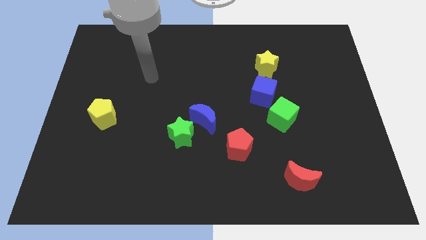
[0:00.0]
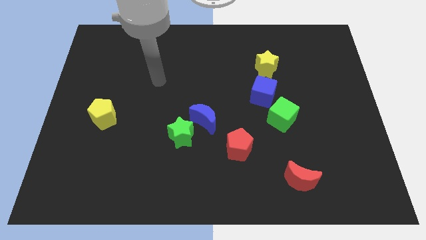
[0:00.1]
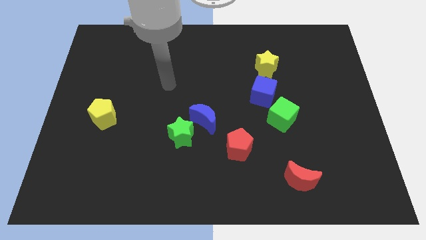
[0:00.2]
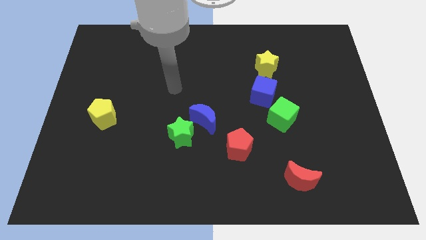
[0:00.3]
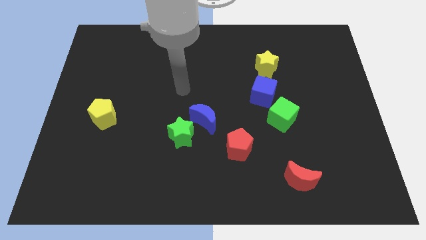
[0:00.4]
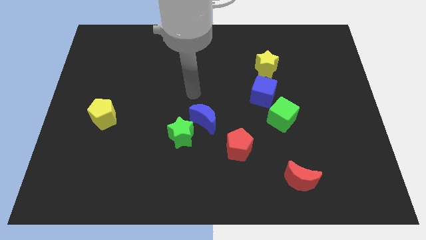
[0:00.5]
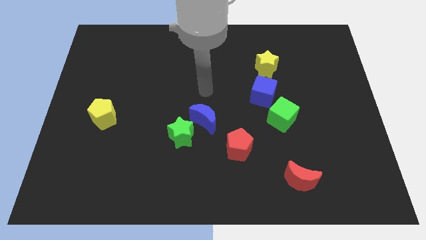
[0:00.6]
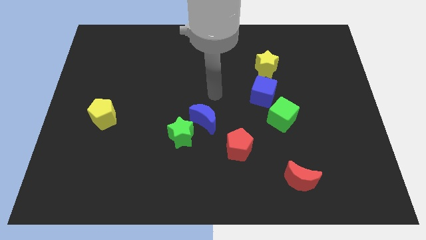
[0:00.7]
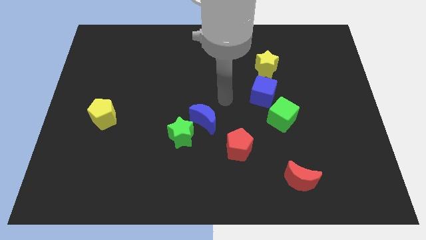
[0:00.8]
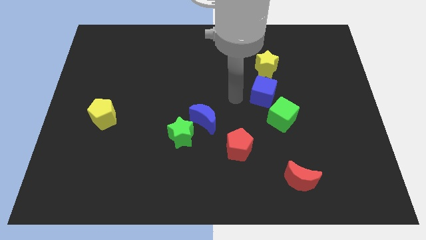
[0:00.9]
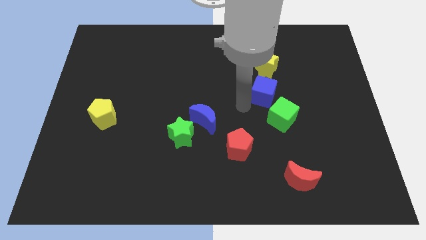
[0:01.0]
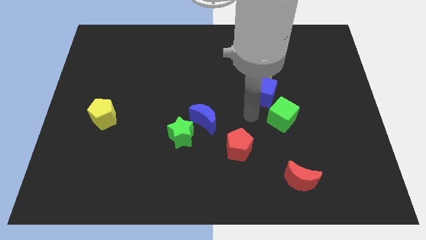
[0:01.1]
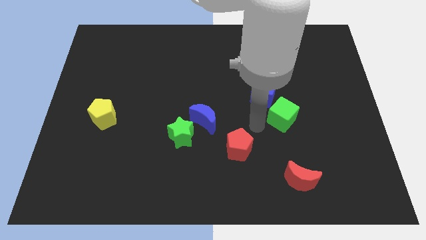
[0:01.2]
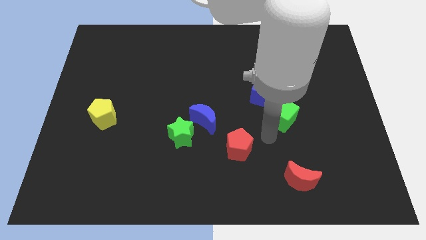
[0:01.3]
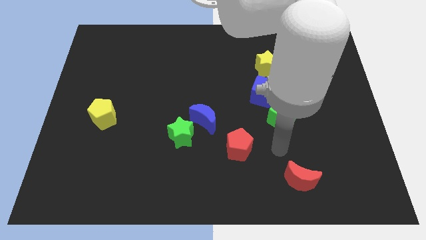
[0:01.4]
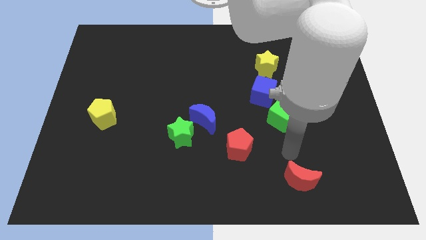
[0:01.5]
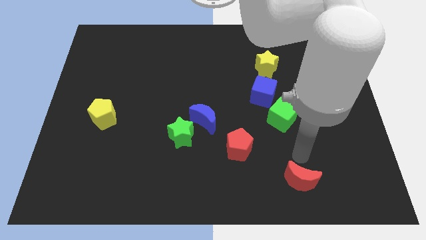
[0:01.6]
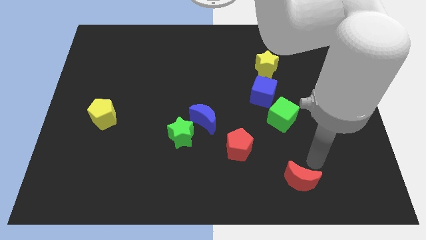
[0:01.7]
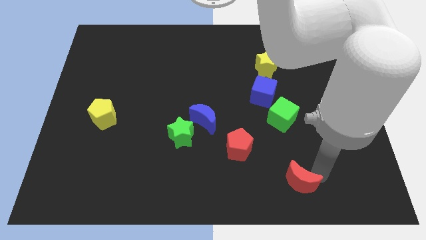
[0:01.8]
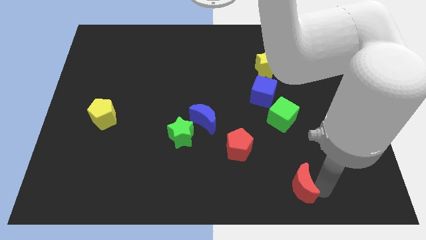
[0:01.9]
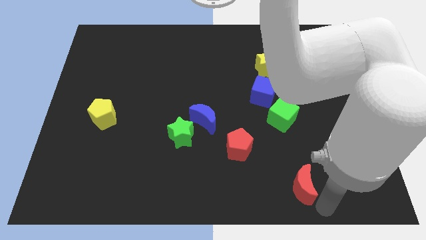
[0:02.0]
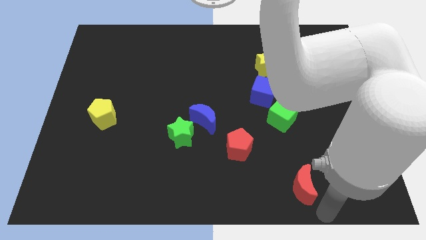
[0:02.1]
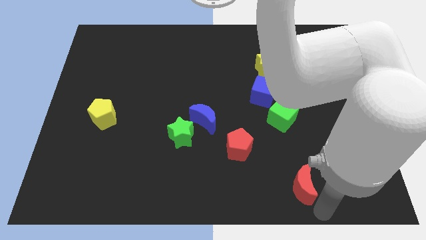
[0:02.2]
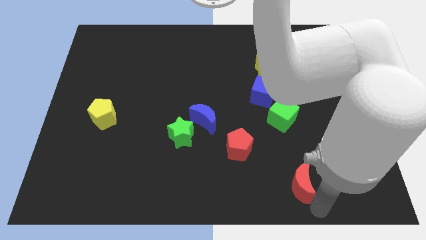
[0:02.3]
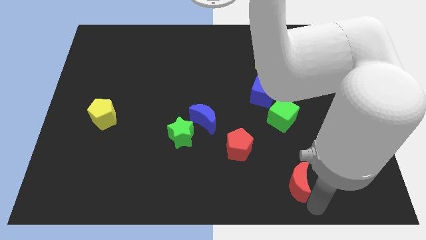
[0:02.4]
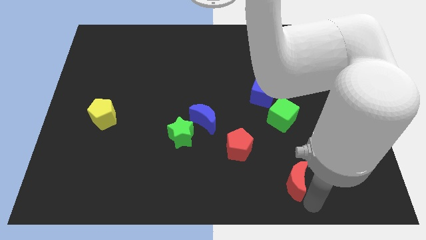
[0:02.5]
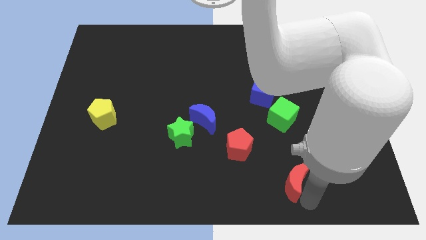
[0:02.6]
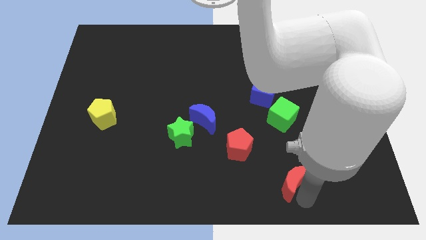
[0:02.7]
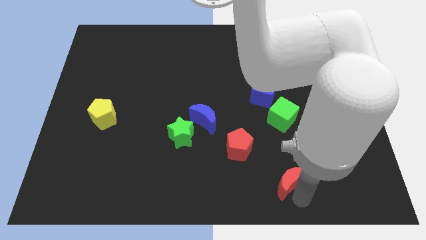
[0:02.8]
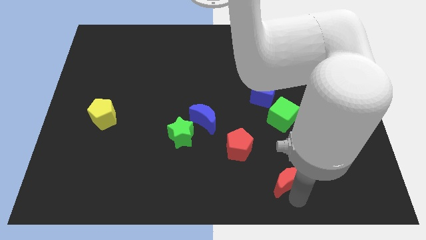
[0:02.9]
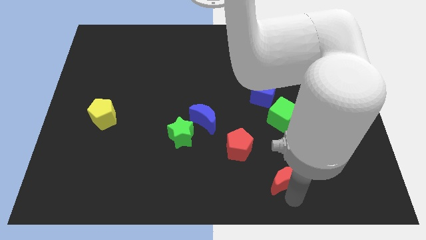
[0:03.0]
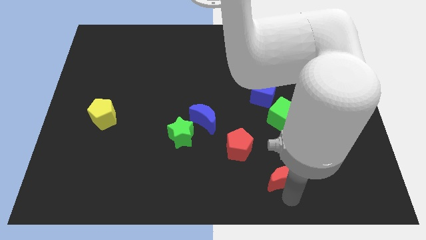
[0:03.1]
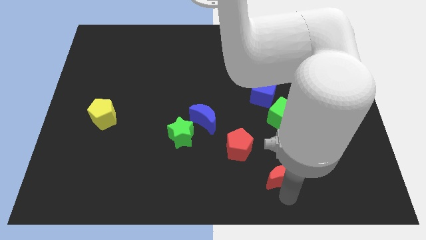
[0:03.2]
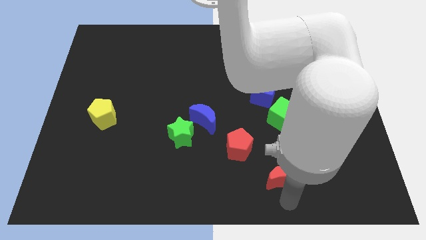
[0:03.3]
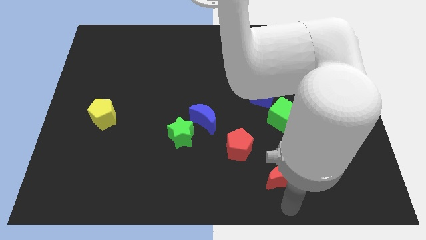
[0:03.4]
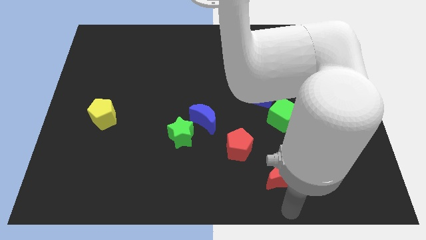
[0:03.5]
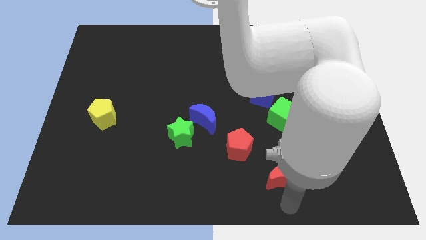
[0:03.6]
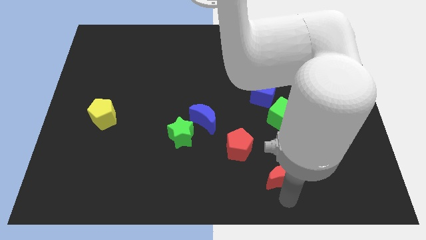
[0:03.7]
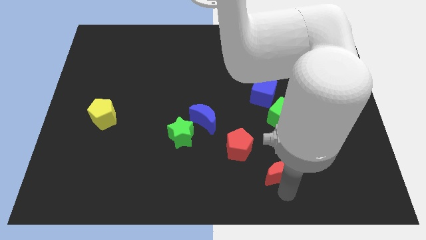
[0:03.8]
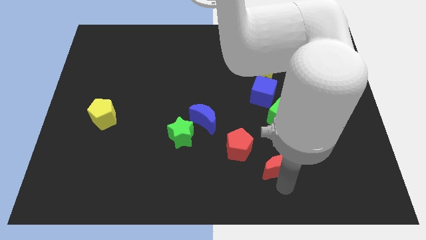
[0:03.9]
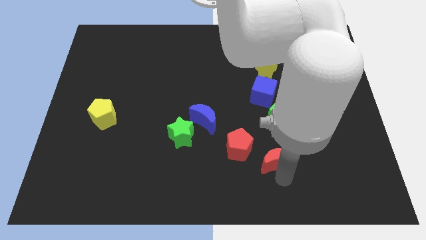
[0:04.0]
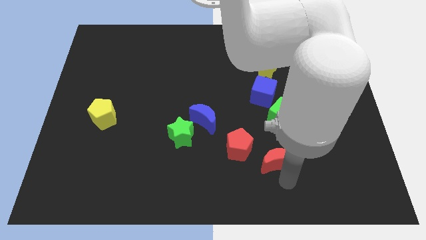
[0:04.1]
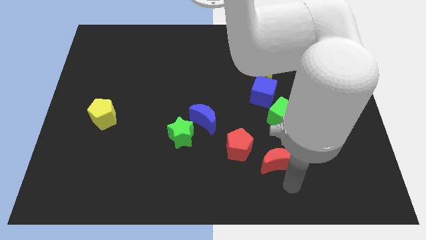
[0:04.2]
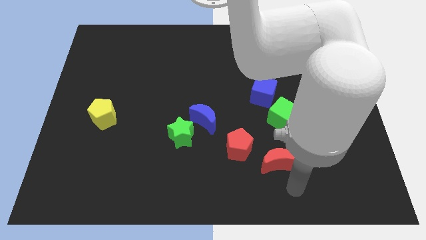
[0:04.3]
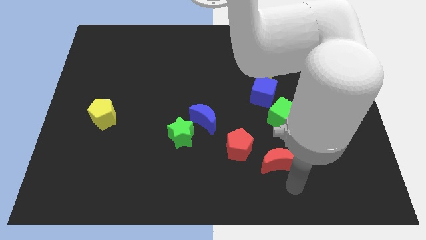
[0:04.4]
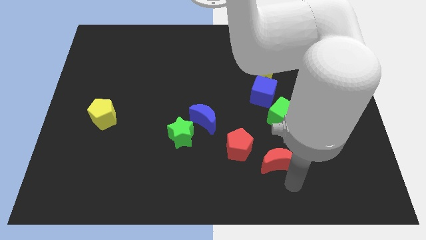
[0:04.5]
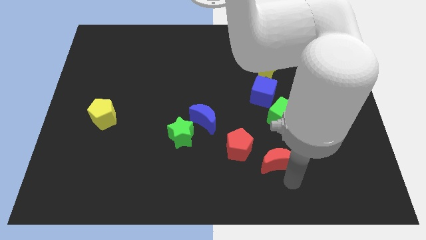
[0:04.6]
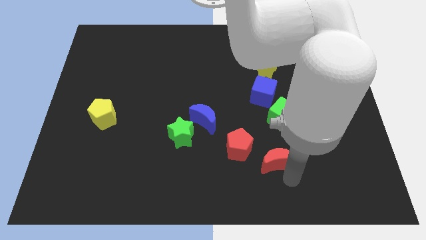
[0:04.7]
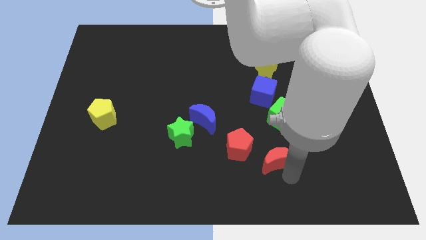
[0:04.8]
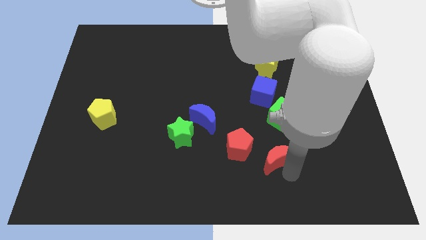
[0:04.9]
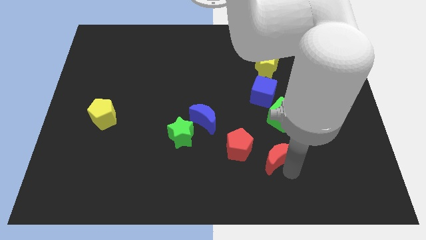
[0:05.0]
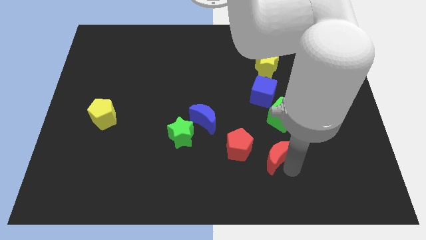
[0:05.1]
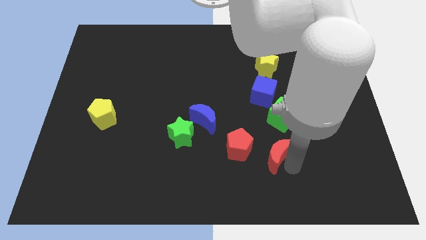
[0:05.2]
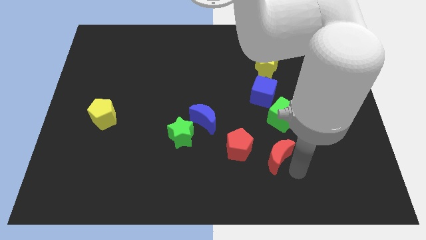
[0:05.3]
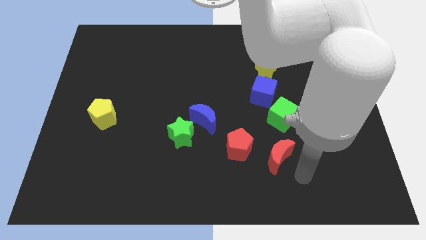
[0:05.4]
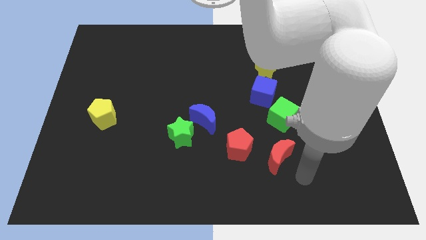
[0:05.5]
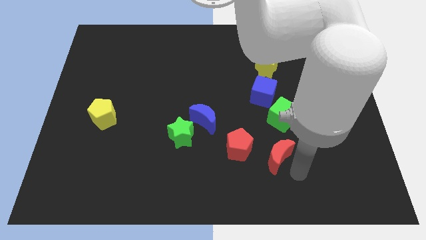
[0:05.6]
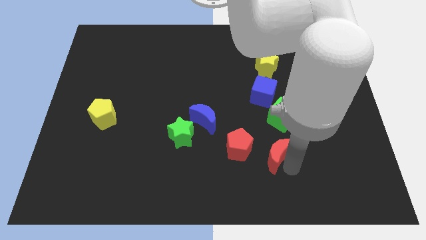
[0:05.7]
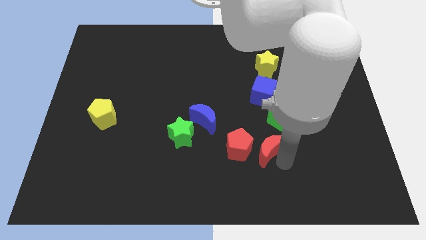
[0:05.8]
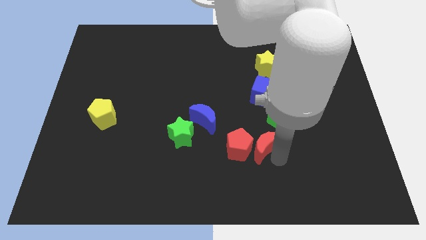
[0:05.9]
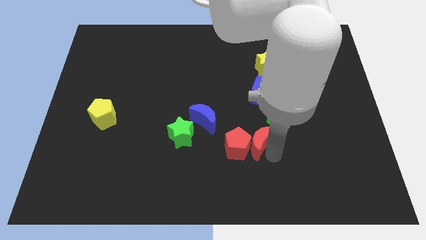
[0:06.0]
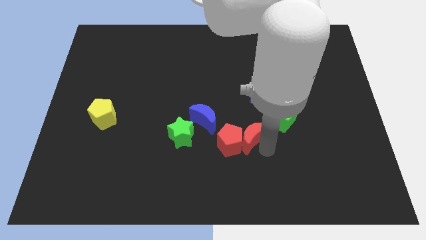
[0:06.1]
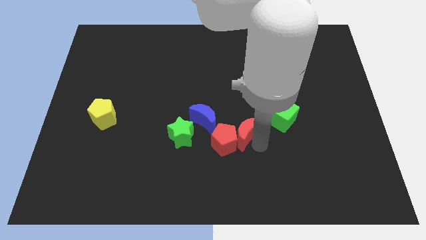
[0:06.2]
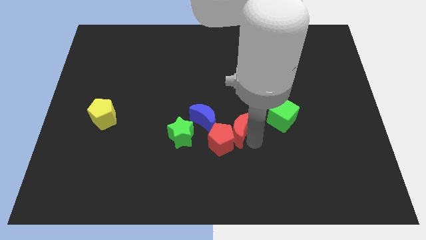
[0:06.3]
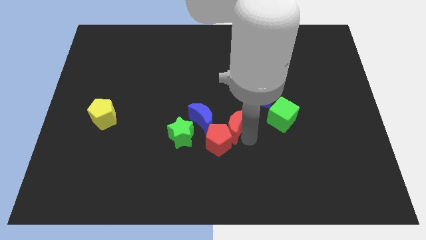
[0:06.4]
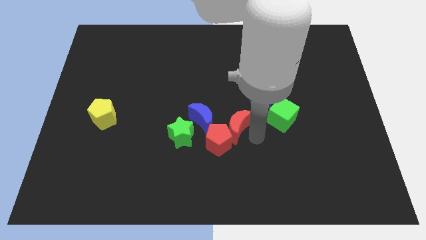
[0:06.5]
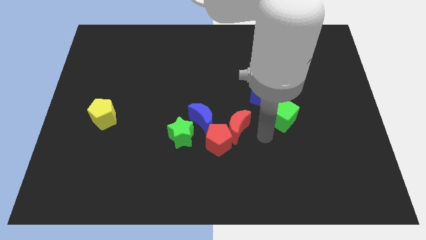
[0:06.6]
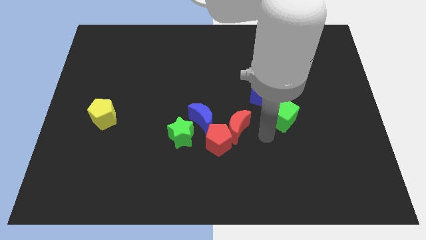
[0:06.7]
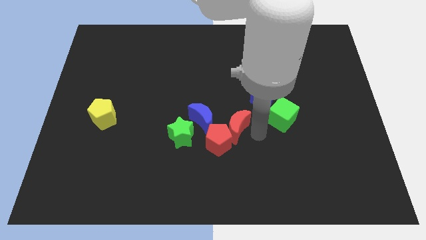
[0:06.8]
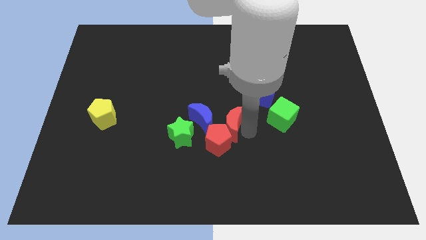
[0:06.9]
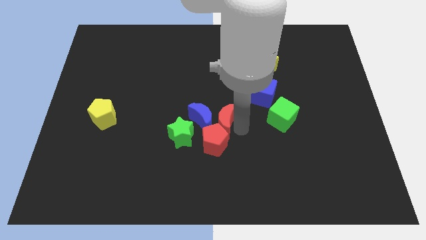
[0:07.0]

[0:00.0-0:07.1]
push the red moon towards the blue moon

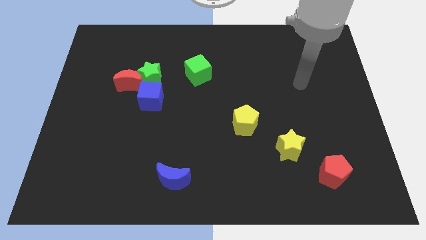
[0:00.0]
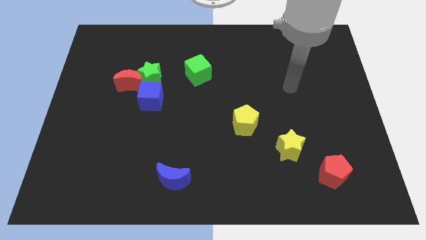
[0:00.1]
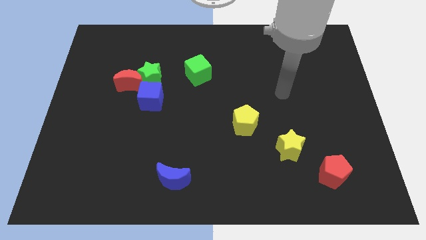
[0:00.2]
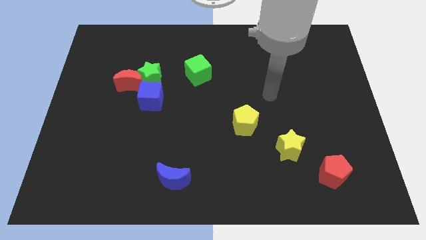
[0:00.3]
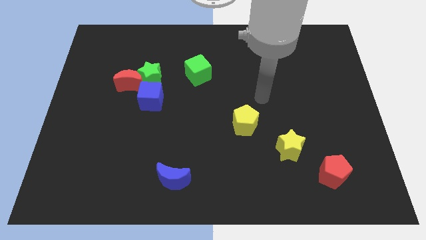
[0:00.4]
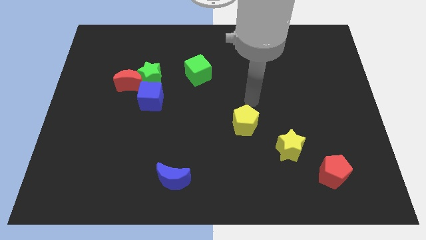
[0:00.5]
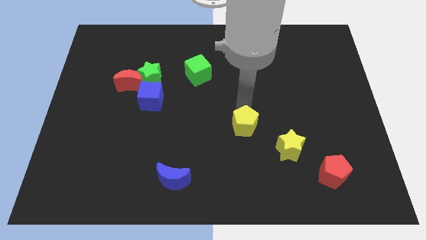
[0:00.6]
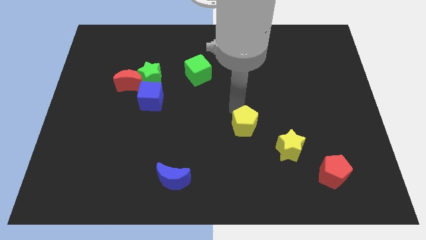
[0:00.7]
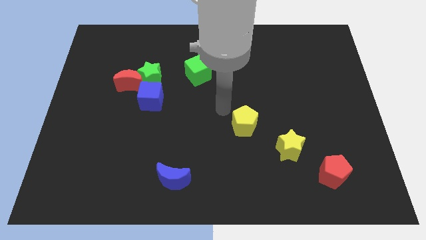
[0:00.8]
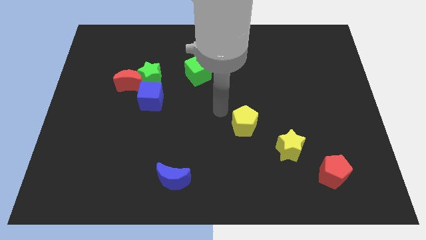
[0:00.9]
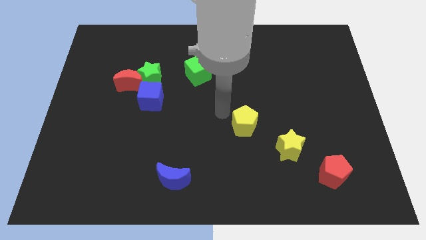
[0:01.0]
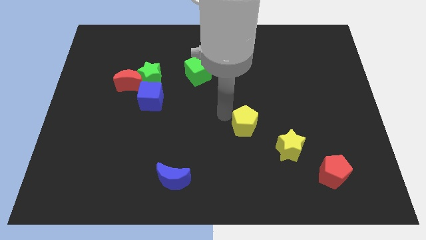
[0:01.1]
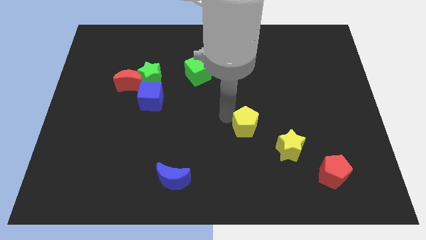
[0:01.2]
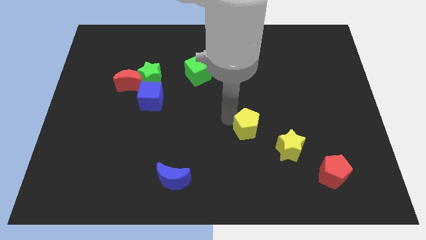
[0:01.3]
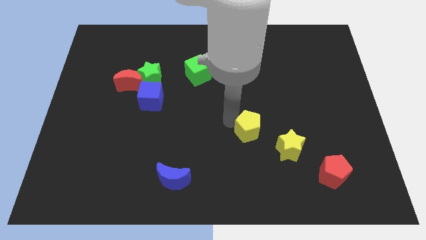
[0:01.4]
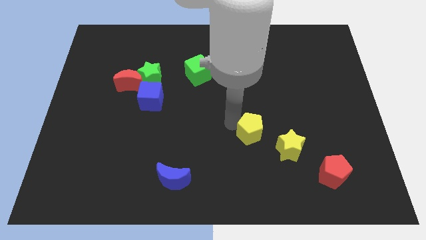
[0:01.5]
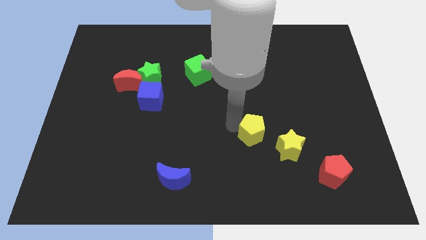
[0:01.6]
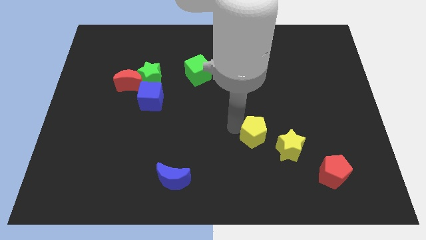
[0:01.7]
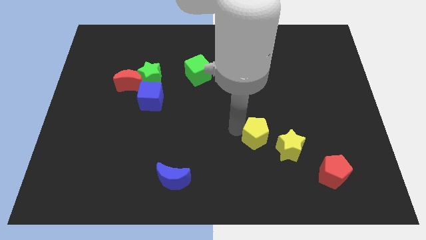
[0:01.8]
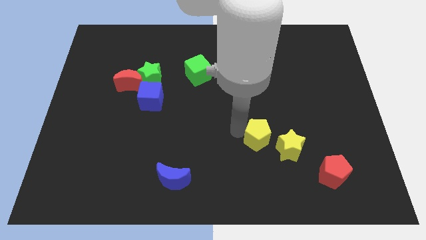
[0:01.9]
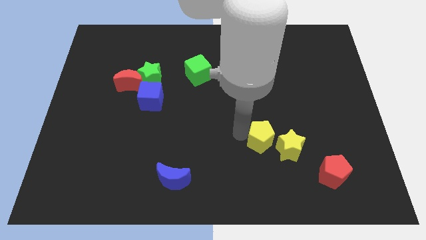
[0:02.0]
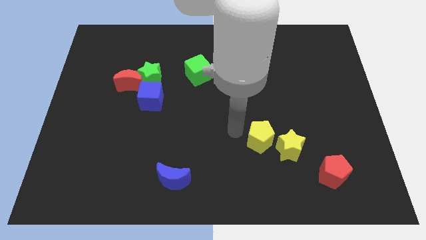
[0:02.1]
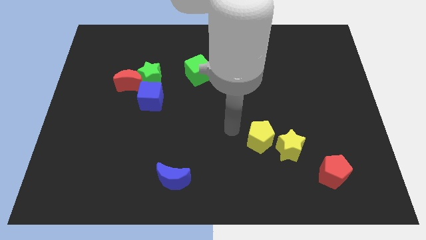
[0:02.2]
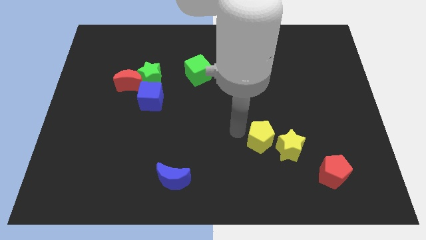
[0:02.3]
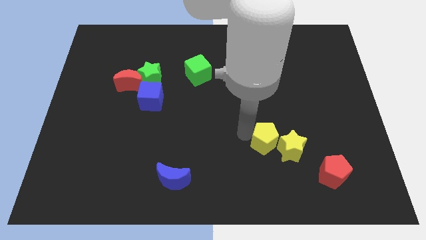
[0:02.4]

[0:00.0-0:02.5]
put the yellow pentagon next to the yellow star
